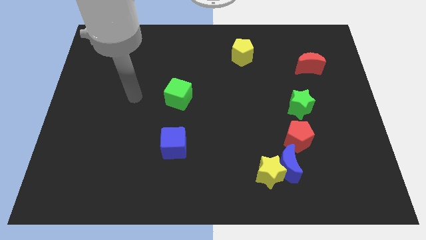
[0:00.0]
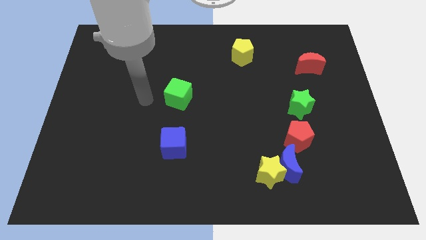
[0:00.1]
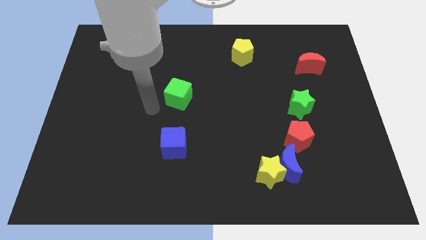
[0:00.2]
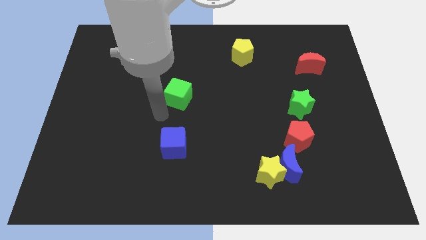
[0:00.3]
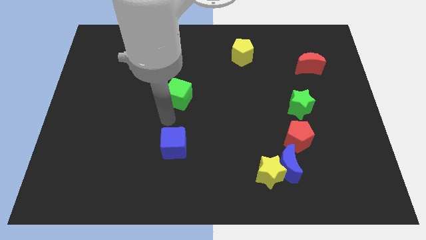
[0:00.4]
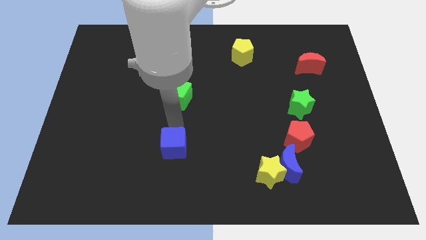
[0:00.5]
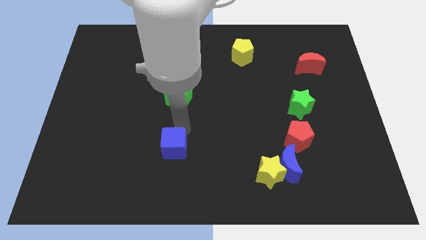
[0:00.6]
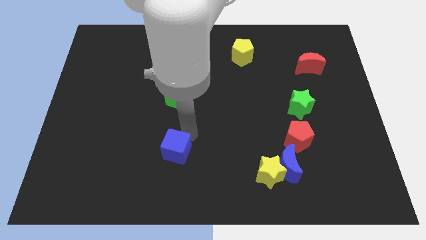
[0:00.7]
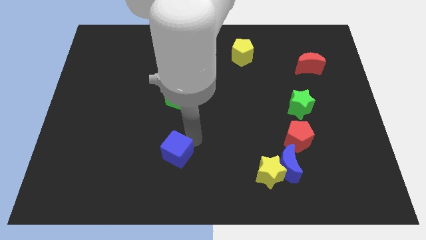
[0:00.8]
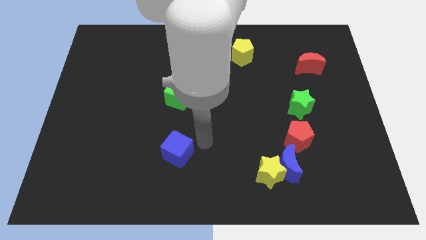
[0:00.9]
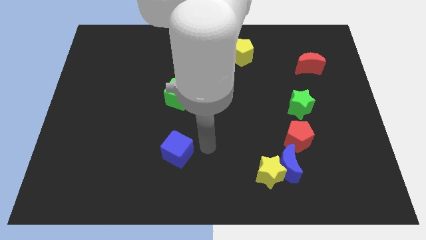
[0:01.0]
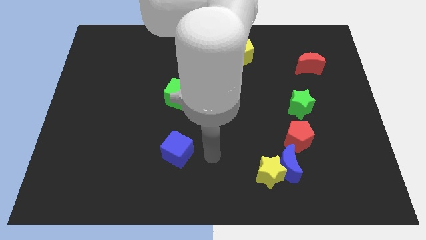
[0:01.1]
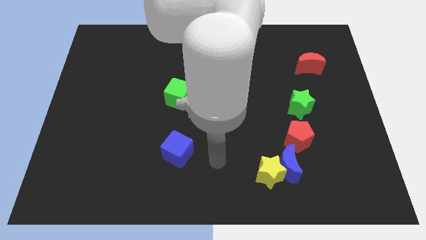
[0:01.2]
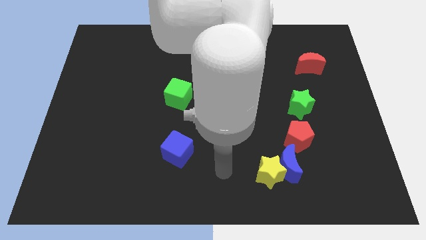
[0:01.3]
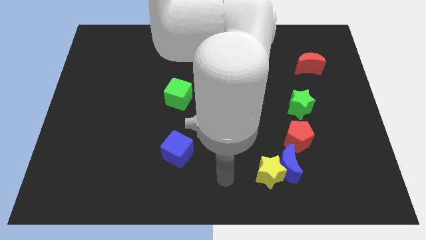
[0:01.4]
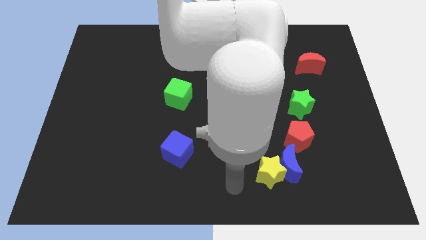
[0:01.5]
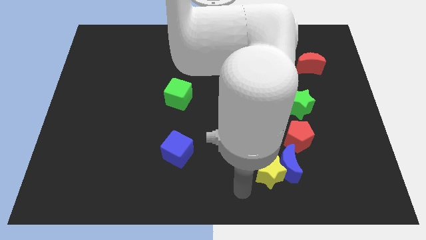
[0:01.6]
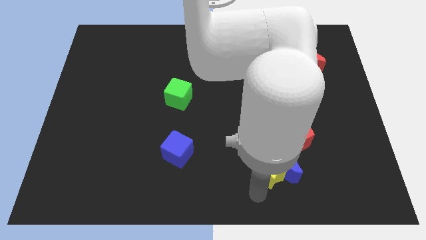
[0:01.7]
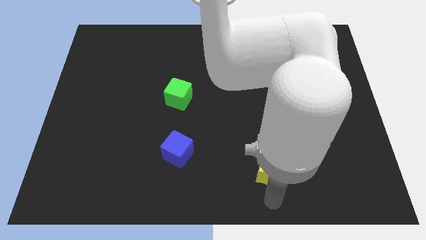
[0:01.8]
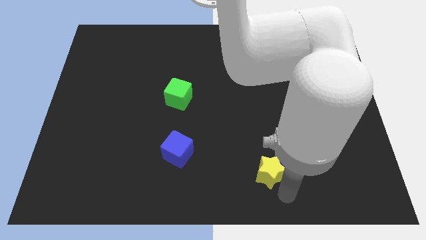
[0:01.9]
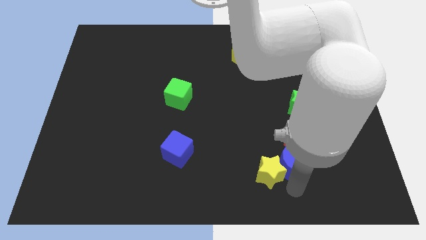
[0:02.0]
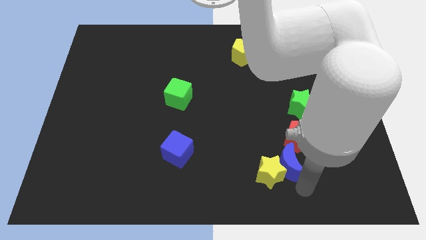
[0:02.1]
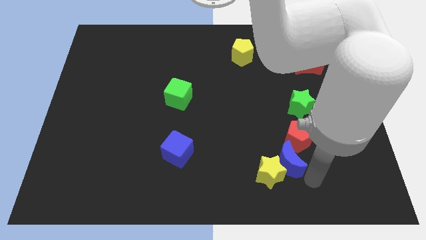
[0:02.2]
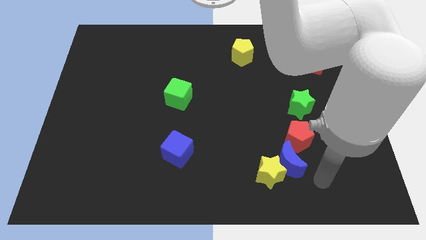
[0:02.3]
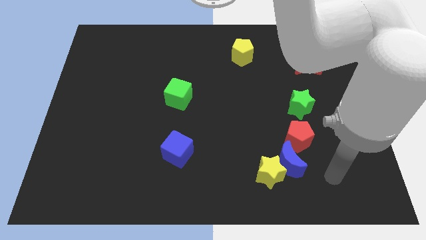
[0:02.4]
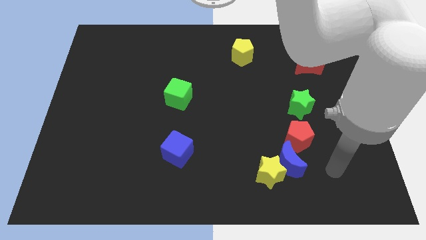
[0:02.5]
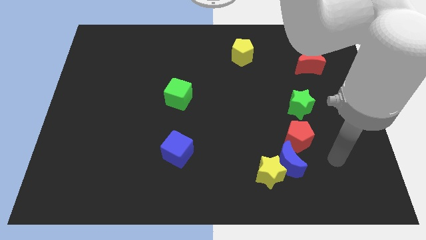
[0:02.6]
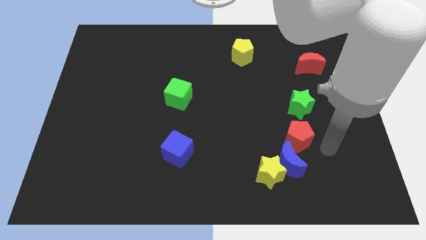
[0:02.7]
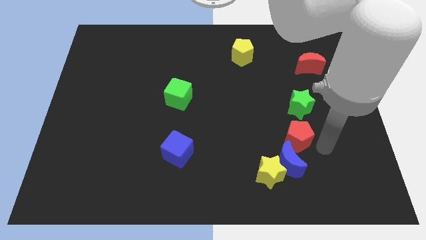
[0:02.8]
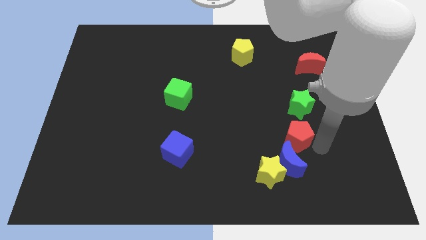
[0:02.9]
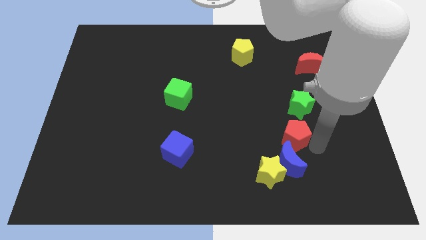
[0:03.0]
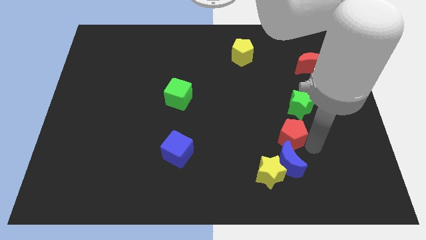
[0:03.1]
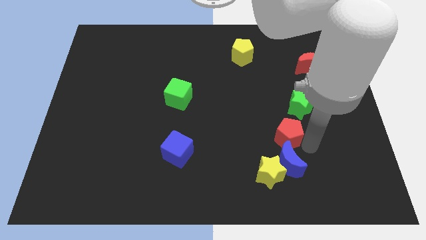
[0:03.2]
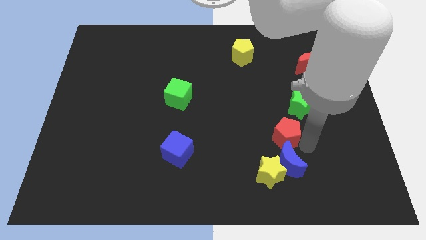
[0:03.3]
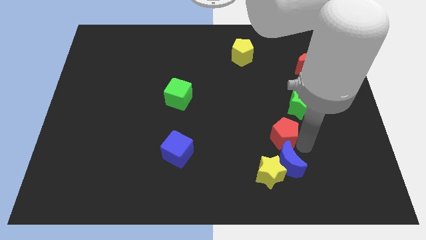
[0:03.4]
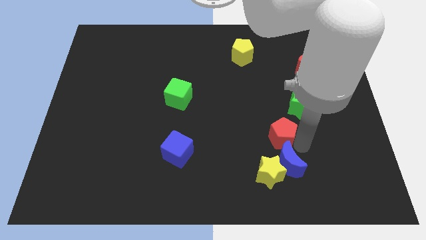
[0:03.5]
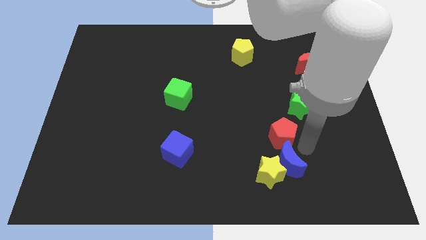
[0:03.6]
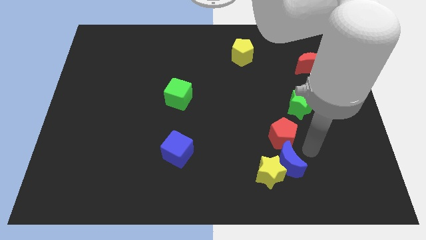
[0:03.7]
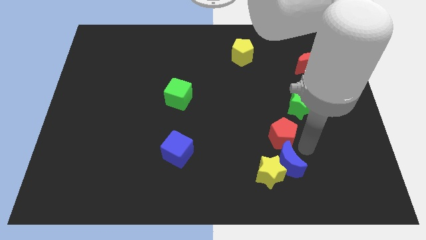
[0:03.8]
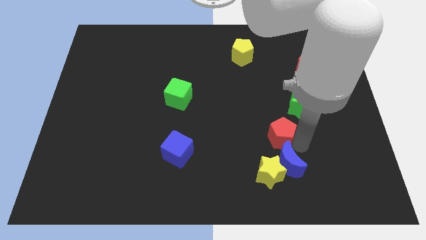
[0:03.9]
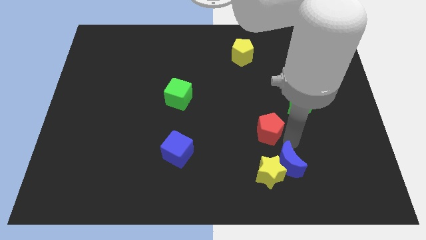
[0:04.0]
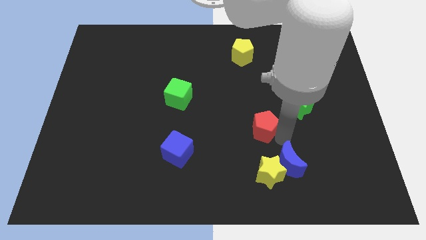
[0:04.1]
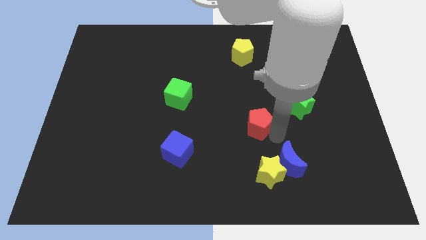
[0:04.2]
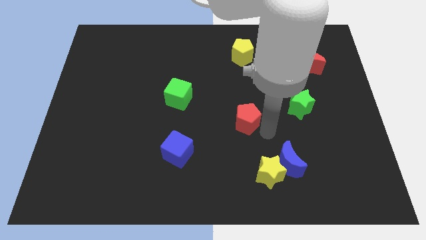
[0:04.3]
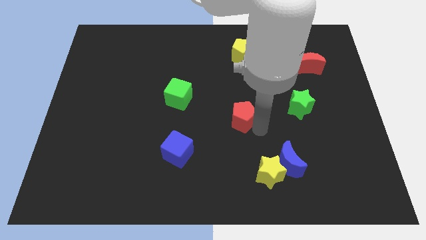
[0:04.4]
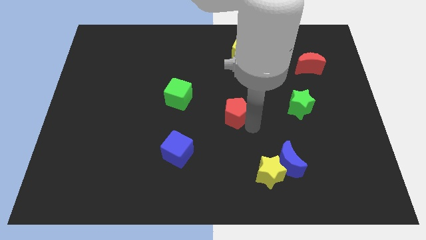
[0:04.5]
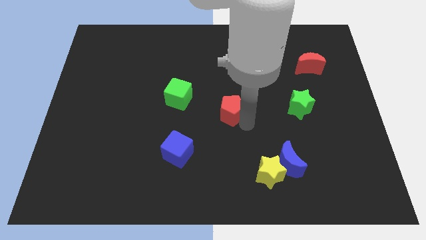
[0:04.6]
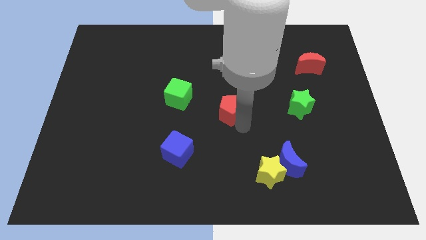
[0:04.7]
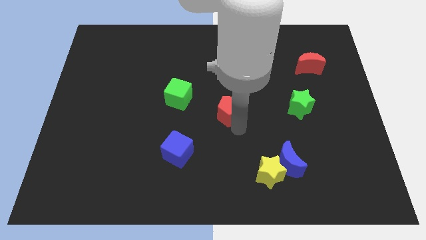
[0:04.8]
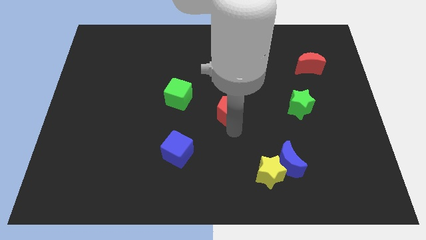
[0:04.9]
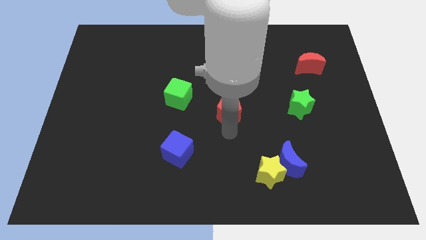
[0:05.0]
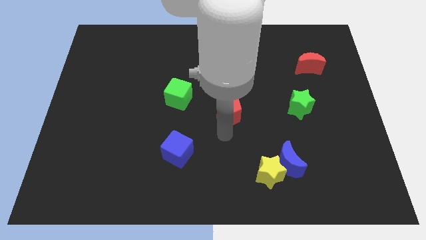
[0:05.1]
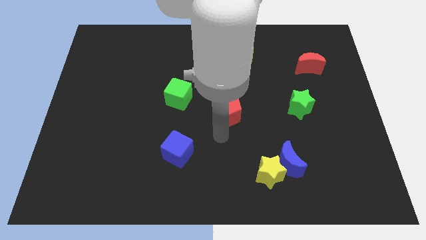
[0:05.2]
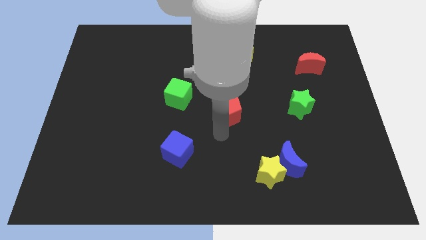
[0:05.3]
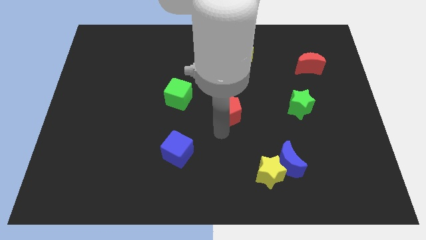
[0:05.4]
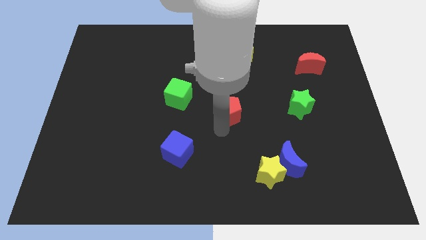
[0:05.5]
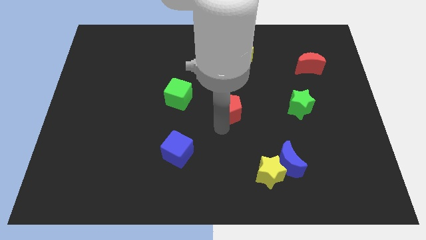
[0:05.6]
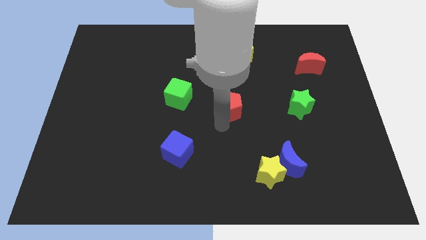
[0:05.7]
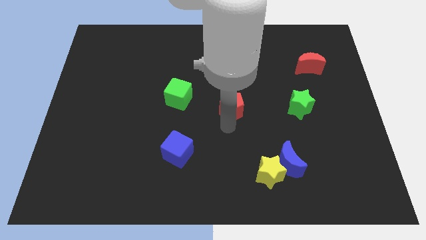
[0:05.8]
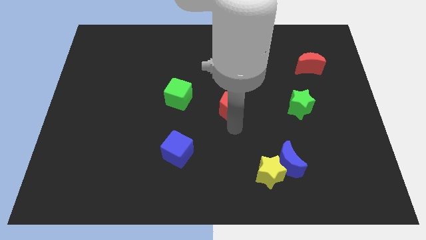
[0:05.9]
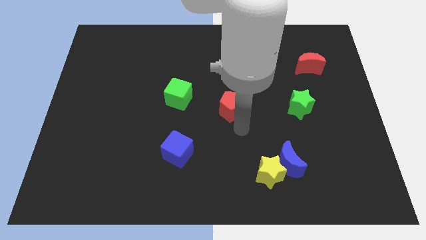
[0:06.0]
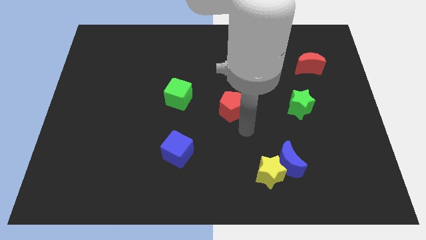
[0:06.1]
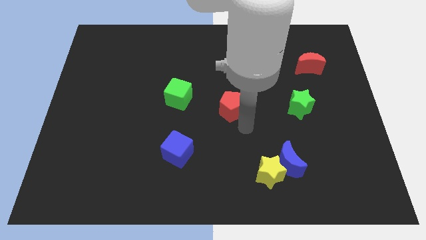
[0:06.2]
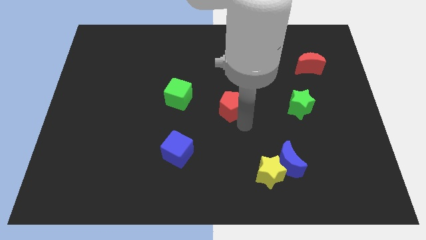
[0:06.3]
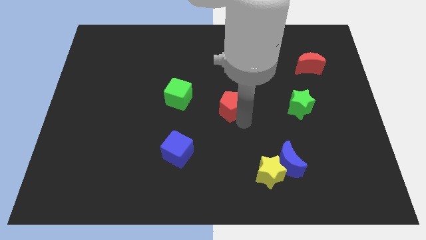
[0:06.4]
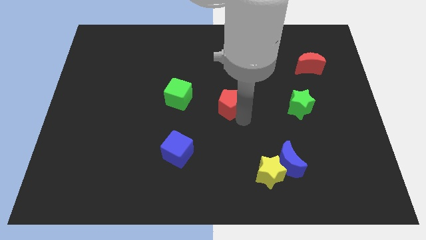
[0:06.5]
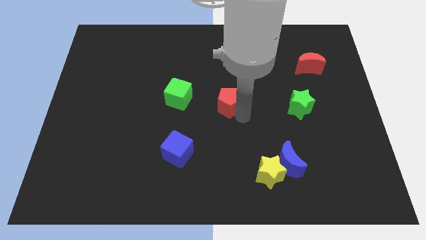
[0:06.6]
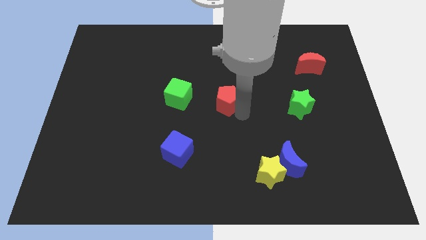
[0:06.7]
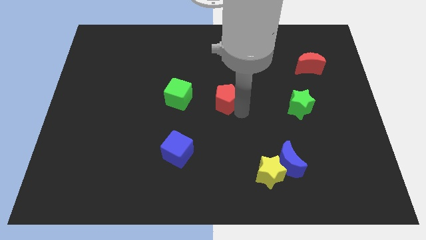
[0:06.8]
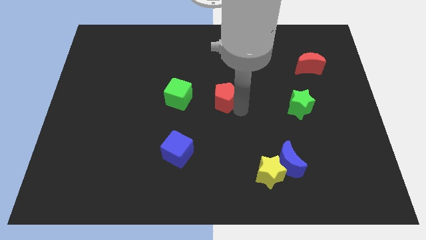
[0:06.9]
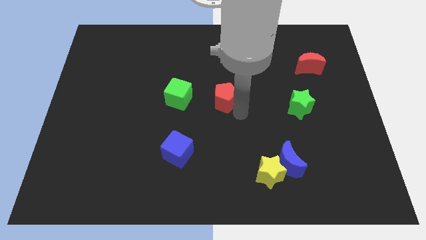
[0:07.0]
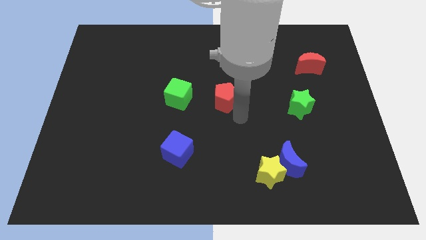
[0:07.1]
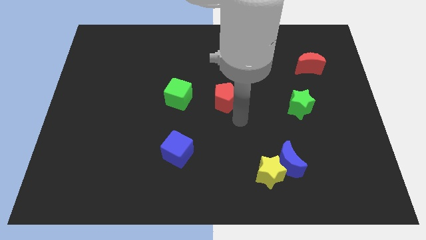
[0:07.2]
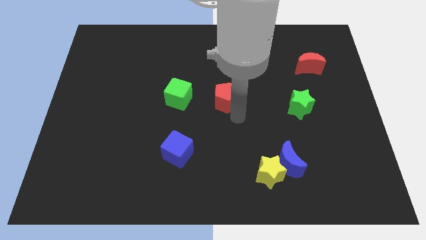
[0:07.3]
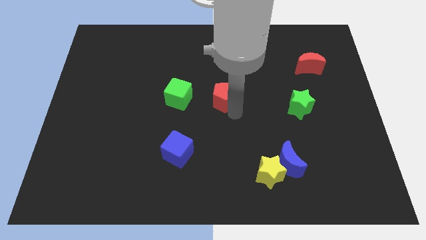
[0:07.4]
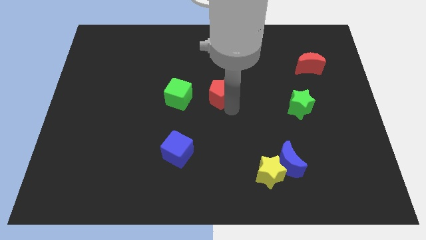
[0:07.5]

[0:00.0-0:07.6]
slide the red pentagon up and left

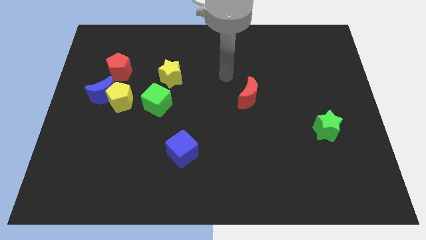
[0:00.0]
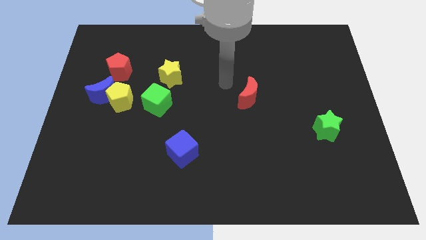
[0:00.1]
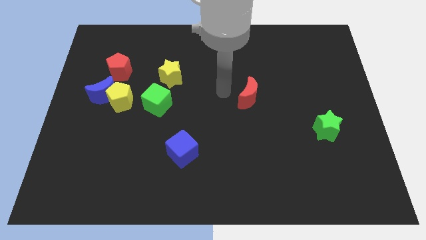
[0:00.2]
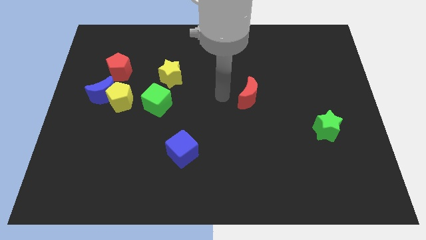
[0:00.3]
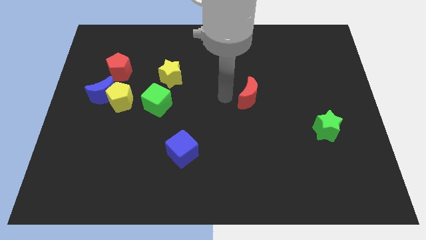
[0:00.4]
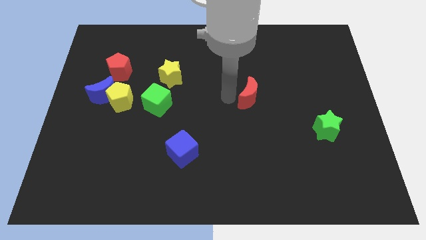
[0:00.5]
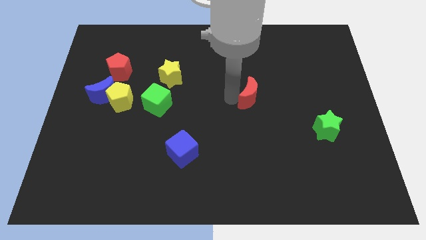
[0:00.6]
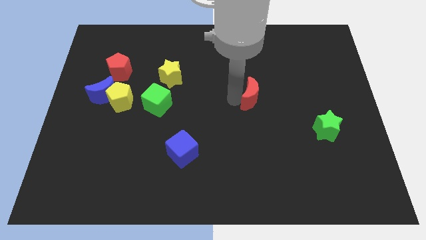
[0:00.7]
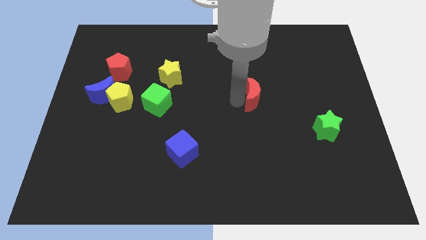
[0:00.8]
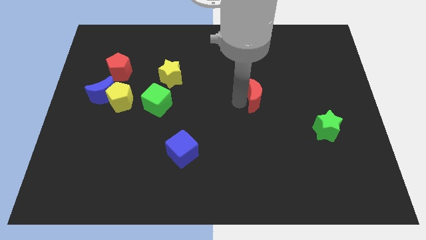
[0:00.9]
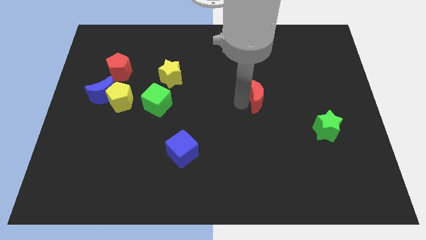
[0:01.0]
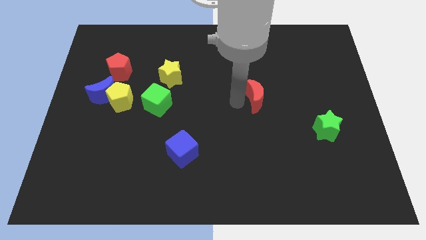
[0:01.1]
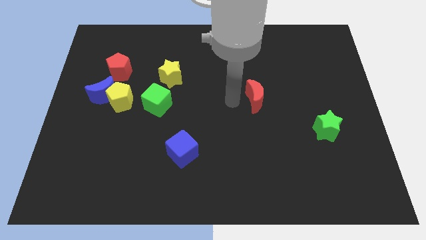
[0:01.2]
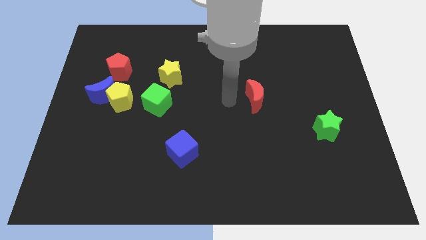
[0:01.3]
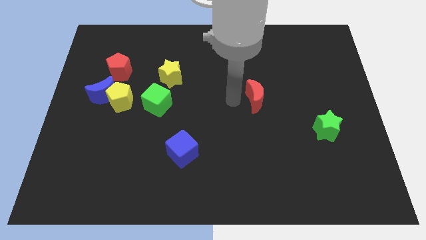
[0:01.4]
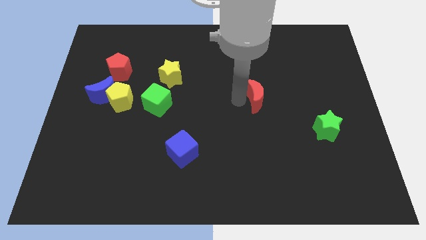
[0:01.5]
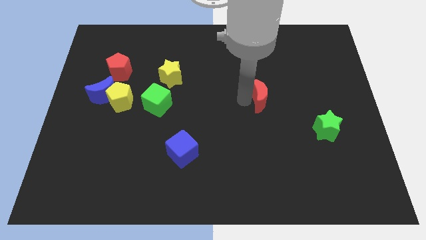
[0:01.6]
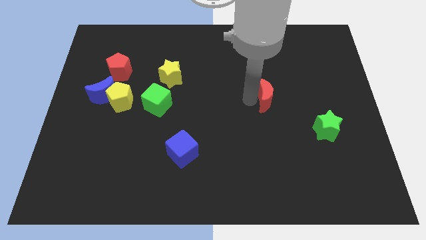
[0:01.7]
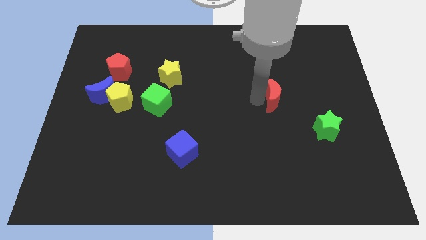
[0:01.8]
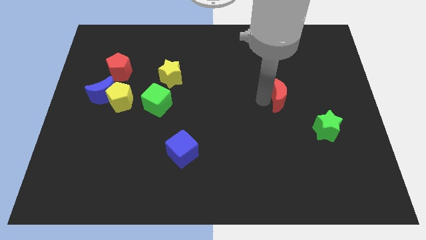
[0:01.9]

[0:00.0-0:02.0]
push the red moon right slightly
